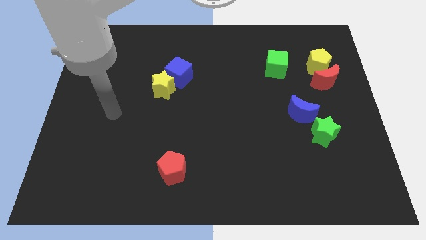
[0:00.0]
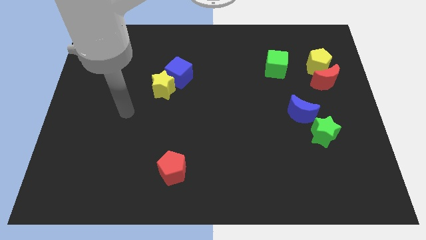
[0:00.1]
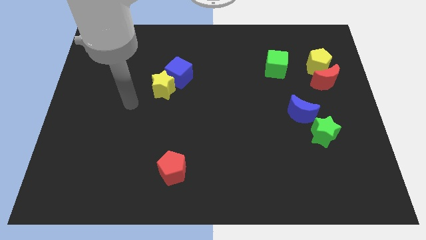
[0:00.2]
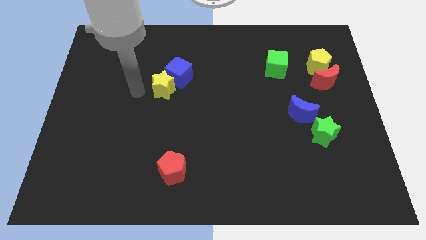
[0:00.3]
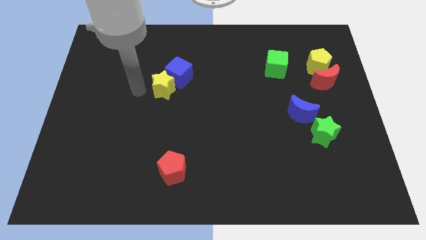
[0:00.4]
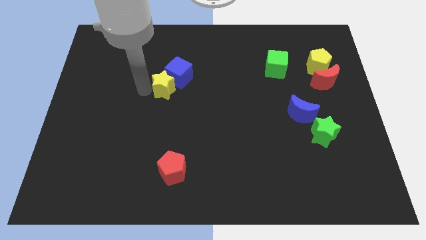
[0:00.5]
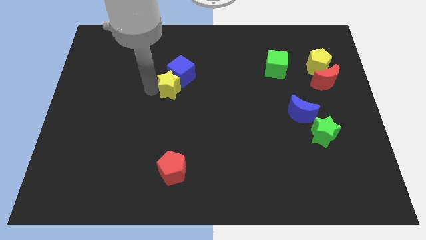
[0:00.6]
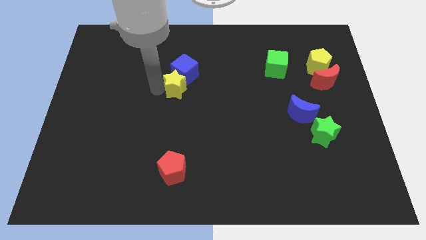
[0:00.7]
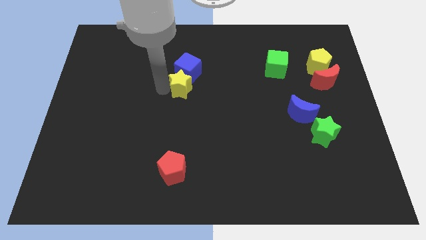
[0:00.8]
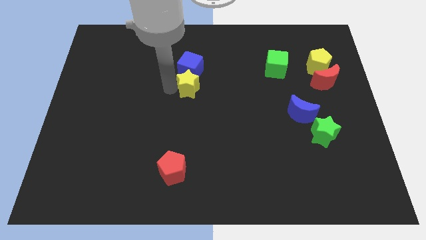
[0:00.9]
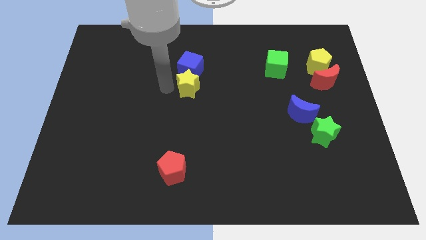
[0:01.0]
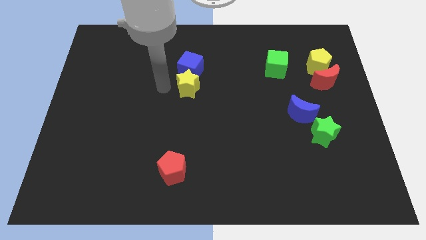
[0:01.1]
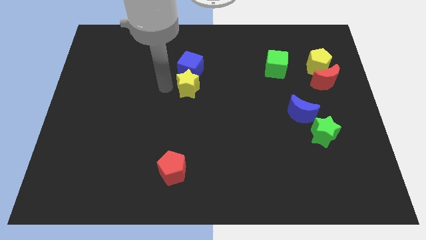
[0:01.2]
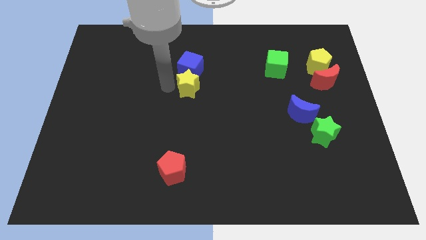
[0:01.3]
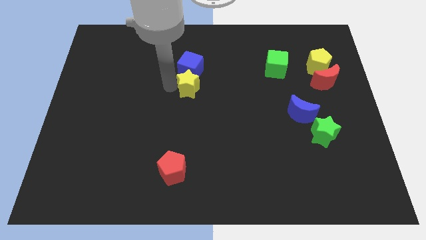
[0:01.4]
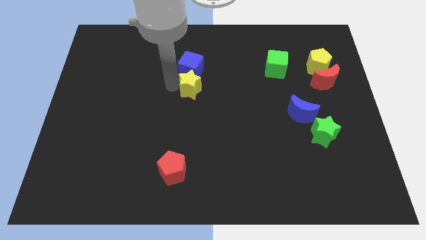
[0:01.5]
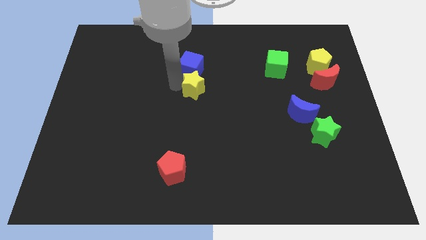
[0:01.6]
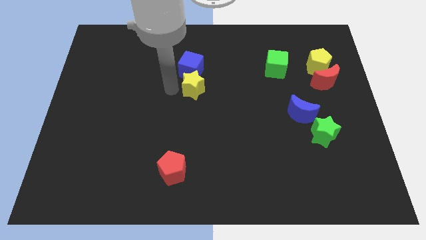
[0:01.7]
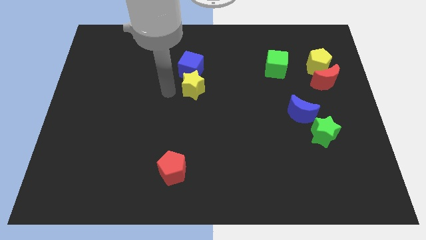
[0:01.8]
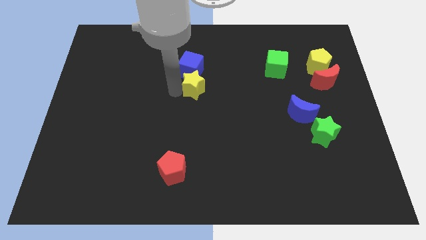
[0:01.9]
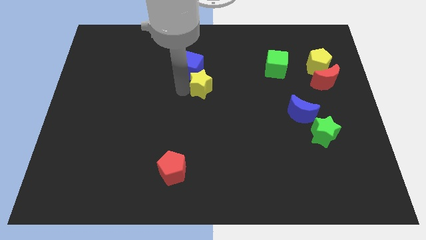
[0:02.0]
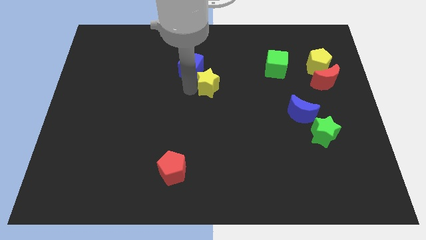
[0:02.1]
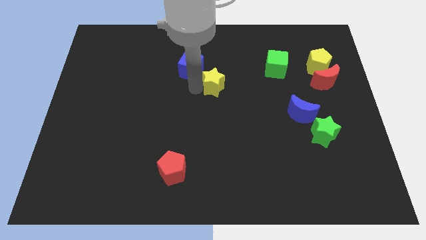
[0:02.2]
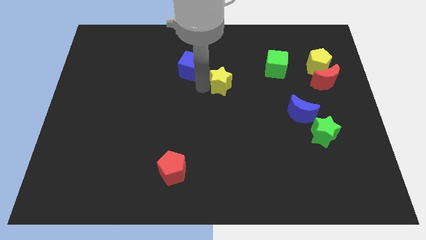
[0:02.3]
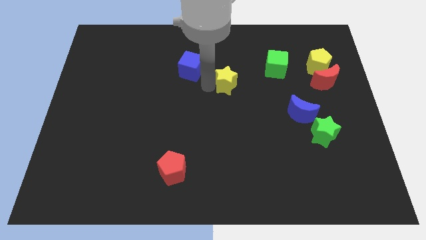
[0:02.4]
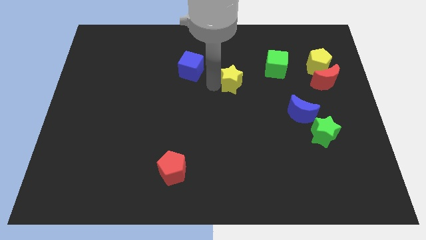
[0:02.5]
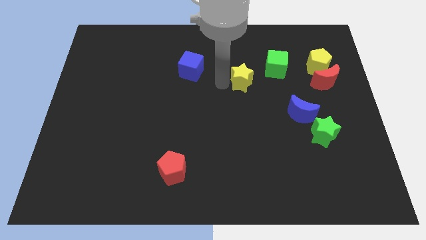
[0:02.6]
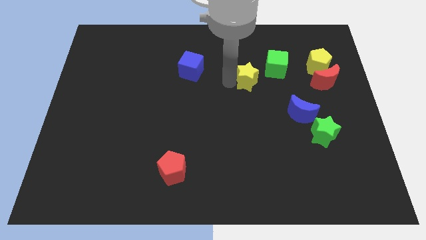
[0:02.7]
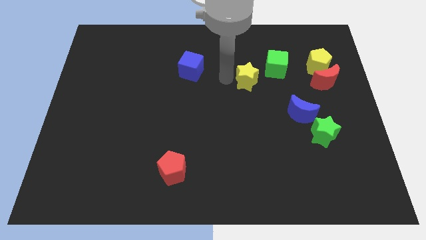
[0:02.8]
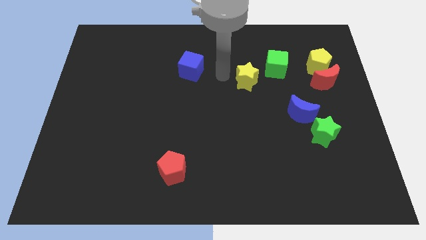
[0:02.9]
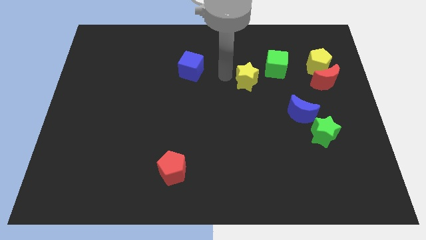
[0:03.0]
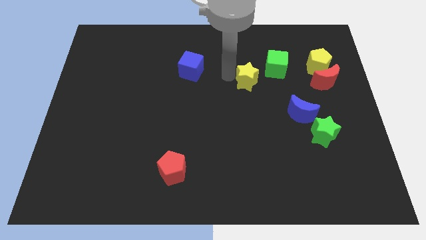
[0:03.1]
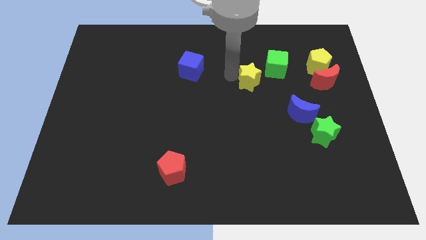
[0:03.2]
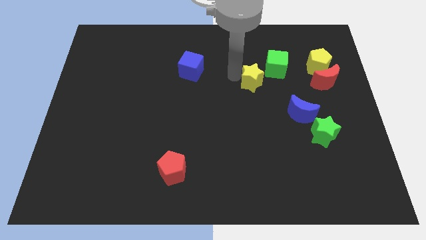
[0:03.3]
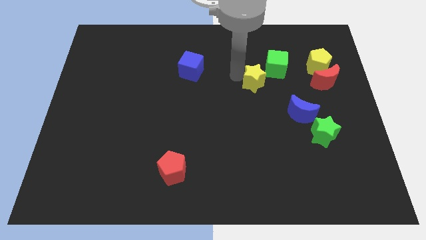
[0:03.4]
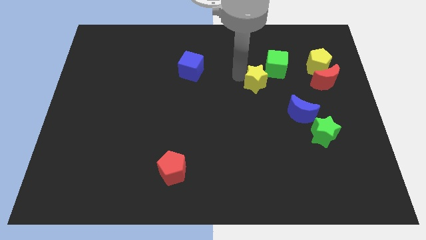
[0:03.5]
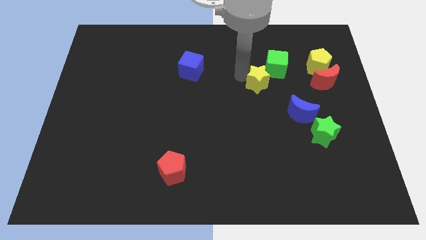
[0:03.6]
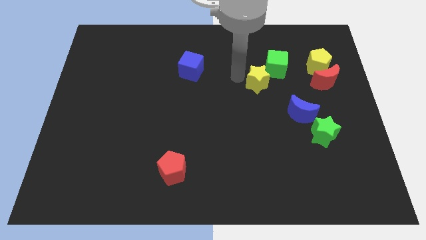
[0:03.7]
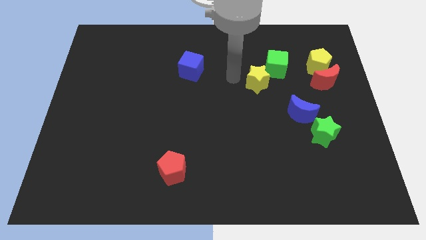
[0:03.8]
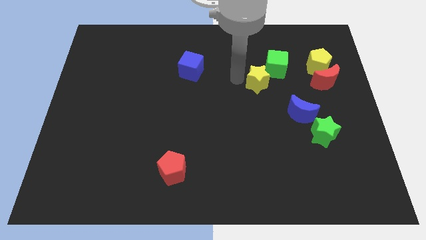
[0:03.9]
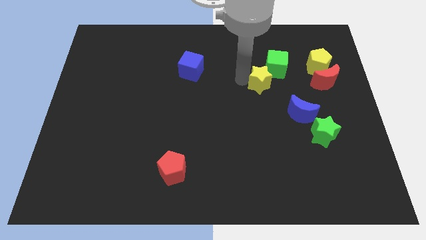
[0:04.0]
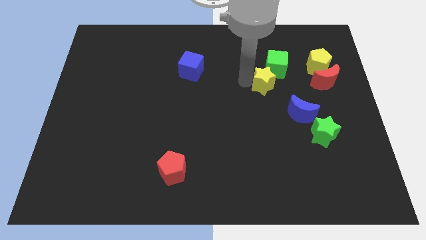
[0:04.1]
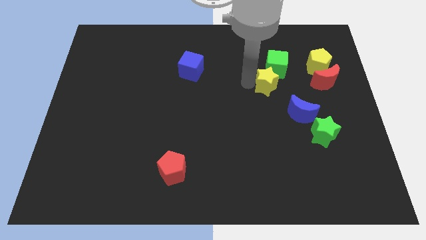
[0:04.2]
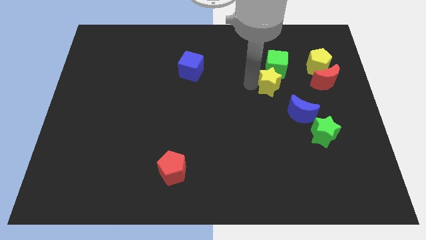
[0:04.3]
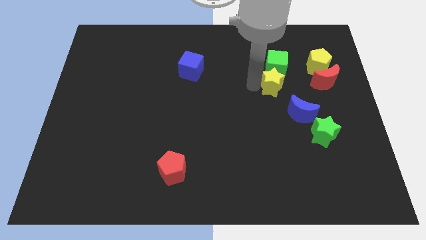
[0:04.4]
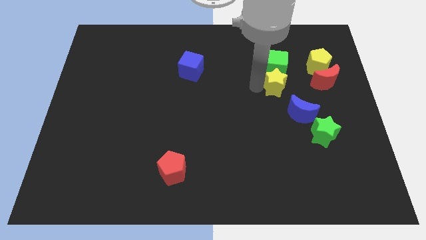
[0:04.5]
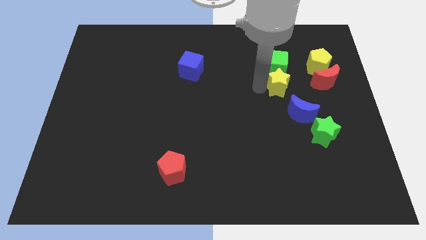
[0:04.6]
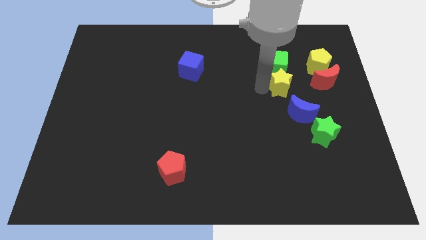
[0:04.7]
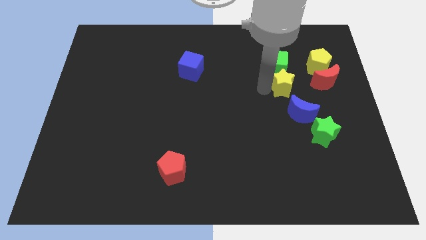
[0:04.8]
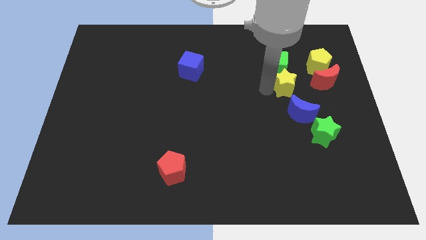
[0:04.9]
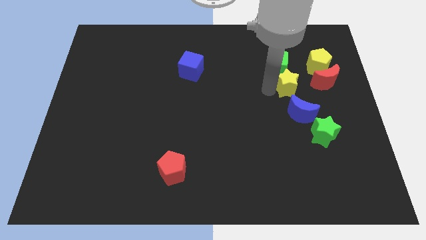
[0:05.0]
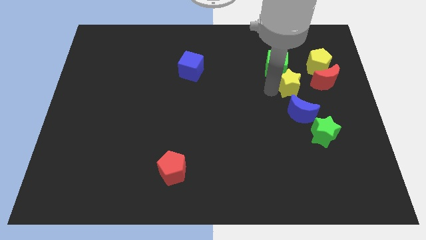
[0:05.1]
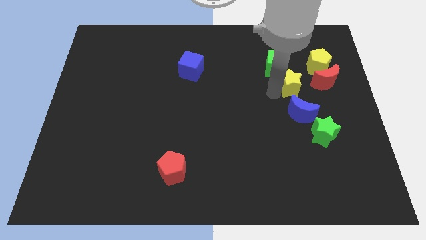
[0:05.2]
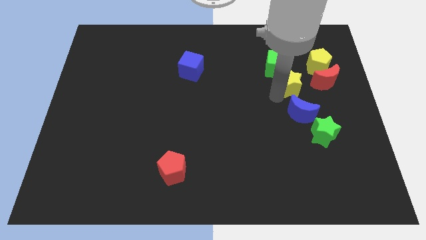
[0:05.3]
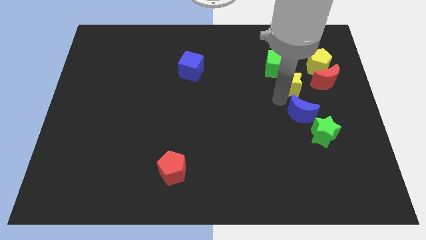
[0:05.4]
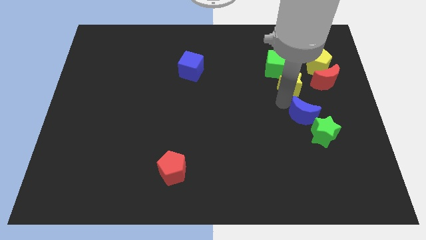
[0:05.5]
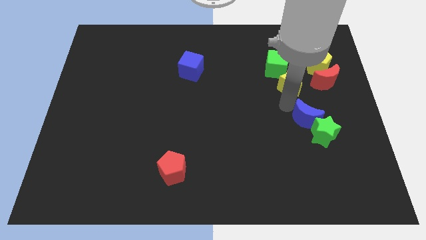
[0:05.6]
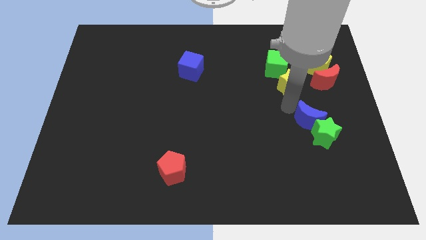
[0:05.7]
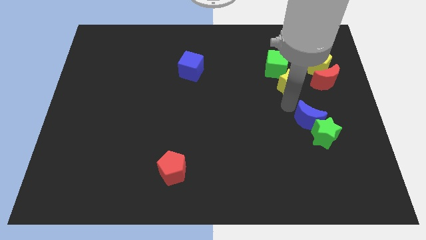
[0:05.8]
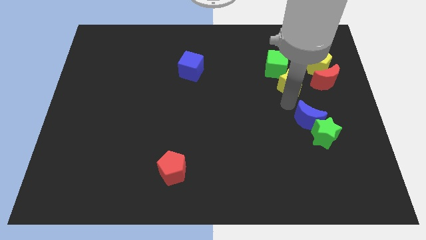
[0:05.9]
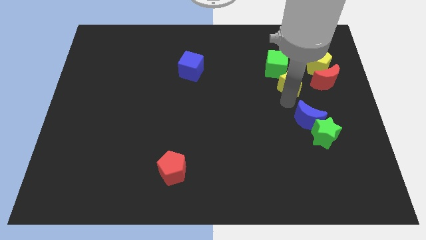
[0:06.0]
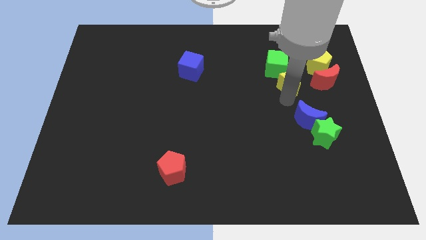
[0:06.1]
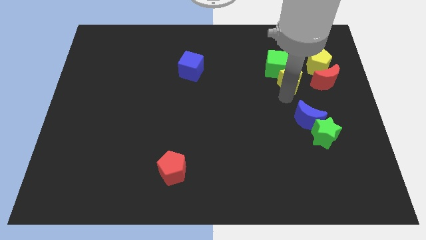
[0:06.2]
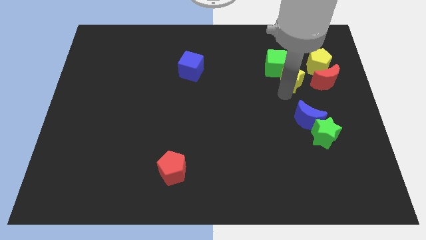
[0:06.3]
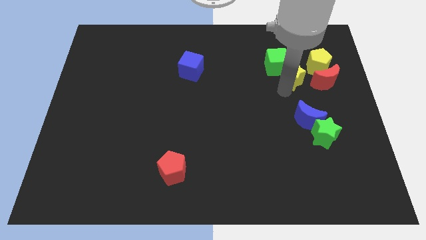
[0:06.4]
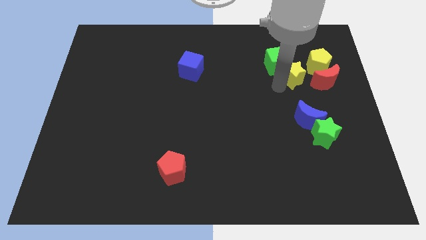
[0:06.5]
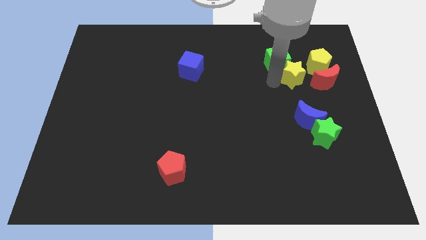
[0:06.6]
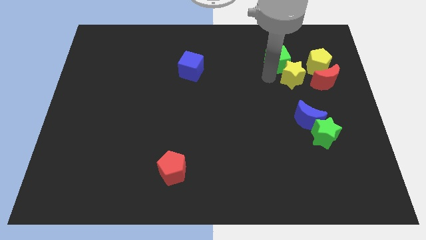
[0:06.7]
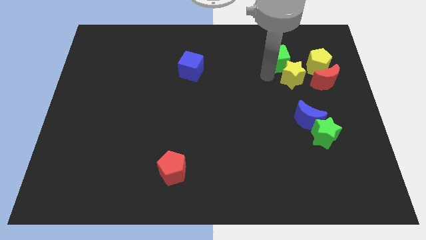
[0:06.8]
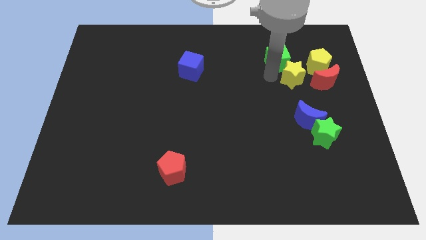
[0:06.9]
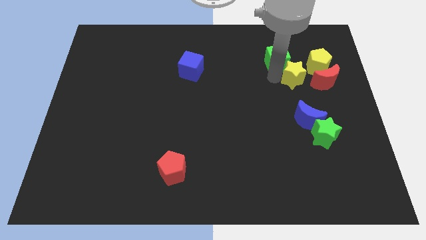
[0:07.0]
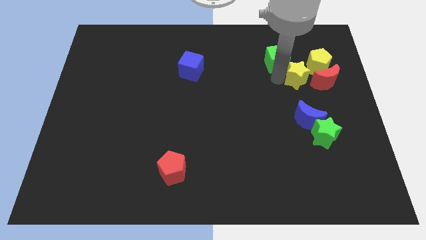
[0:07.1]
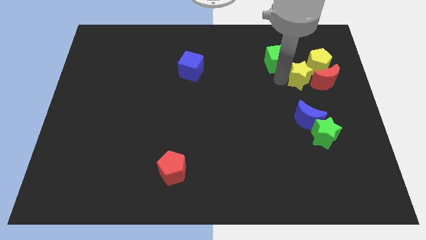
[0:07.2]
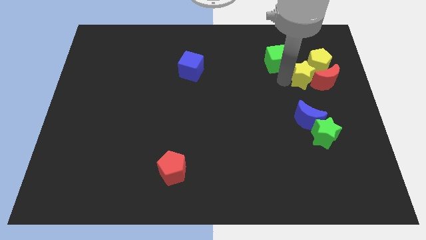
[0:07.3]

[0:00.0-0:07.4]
push the yellow star close to the red moon
